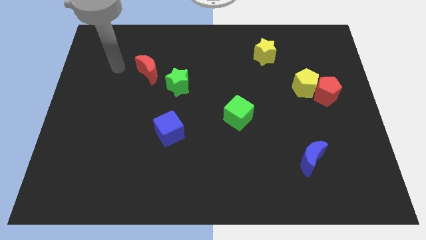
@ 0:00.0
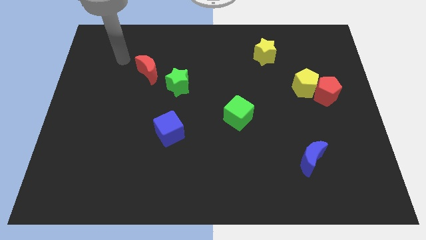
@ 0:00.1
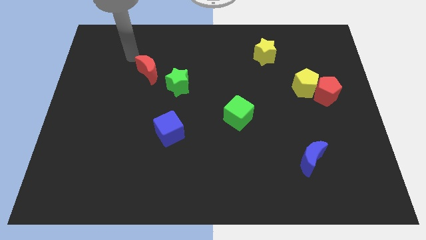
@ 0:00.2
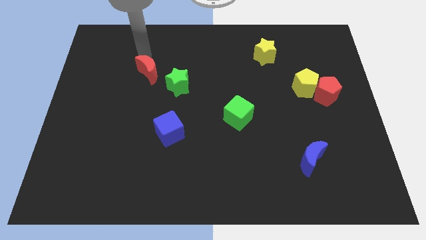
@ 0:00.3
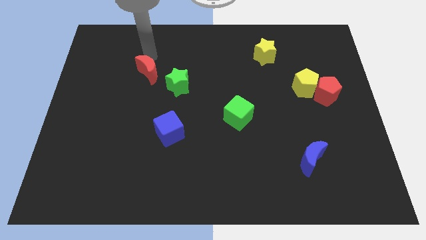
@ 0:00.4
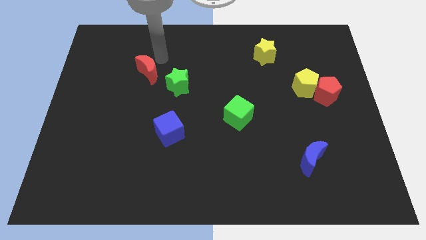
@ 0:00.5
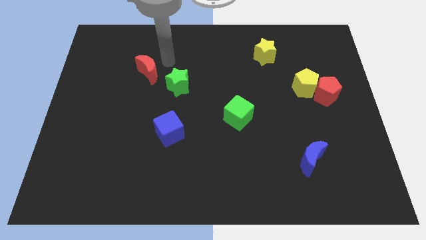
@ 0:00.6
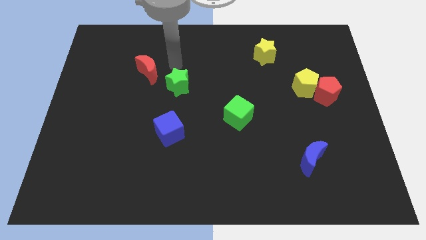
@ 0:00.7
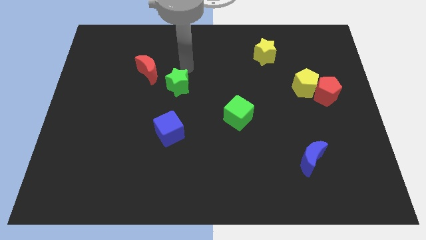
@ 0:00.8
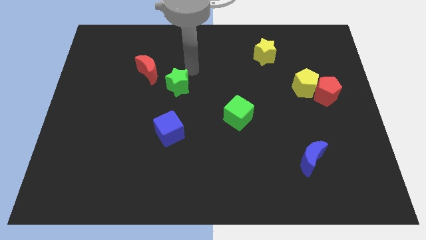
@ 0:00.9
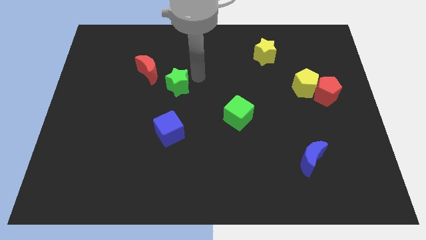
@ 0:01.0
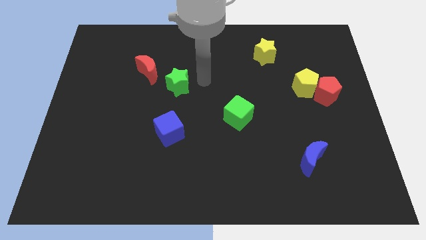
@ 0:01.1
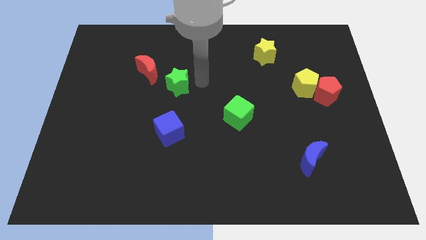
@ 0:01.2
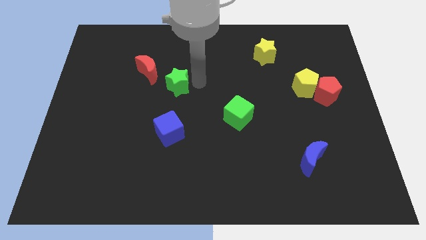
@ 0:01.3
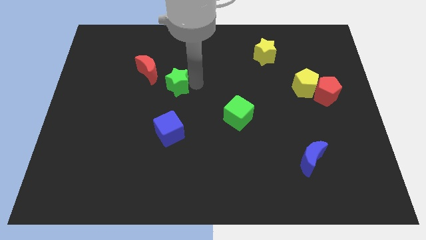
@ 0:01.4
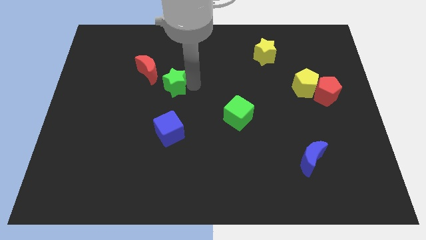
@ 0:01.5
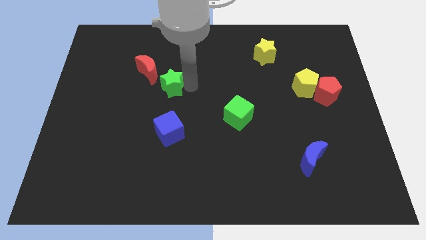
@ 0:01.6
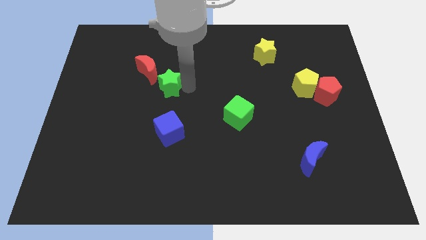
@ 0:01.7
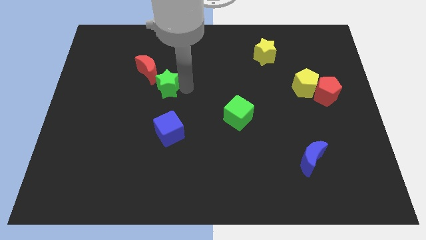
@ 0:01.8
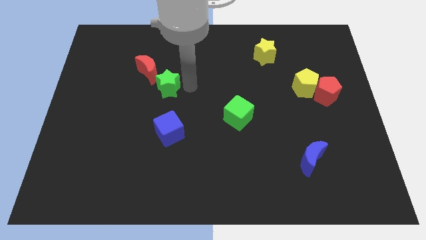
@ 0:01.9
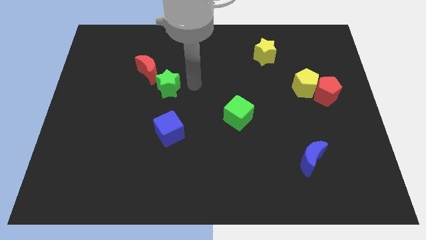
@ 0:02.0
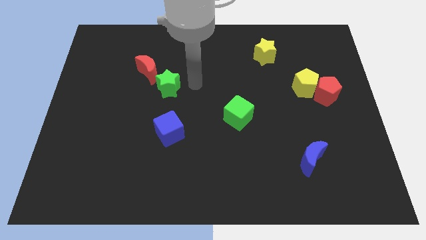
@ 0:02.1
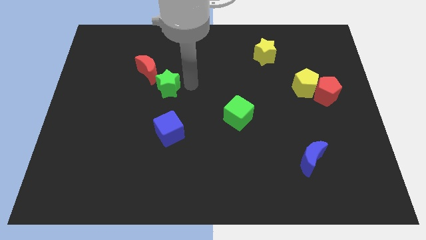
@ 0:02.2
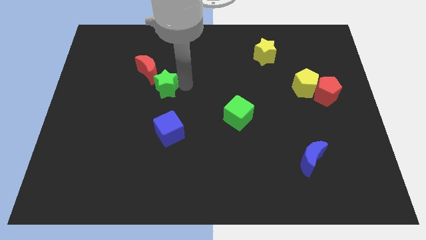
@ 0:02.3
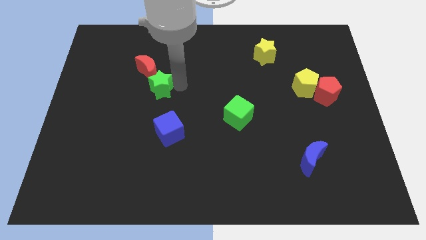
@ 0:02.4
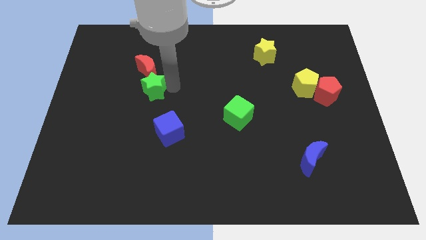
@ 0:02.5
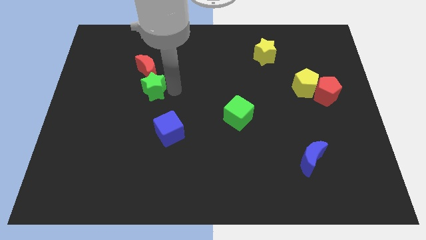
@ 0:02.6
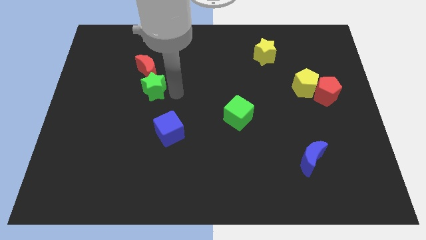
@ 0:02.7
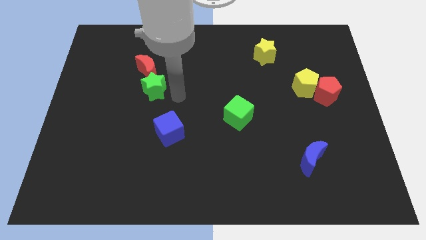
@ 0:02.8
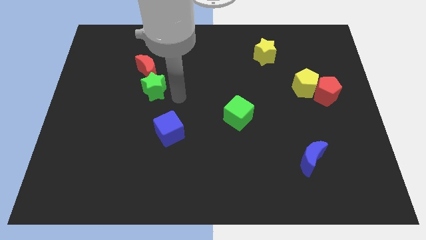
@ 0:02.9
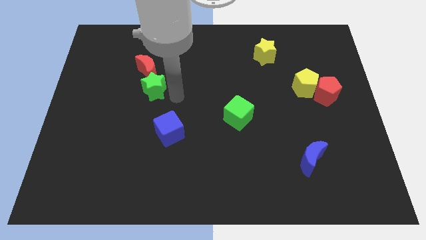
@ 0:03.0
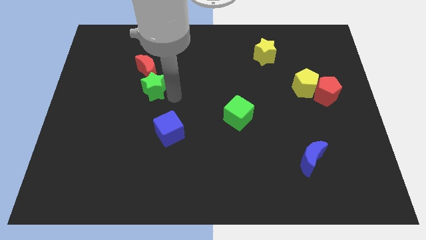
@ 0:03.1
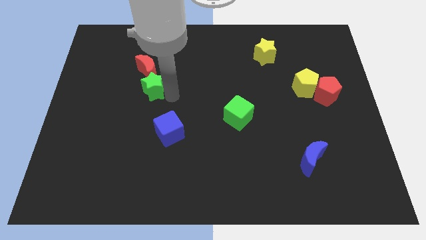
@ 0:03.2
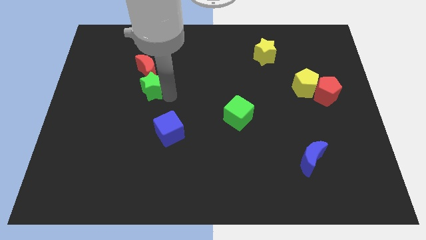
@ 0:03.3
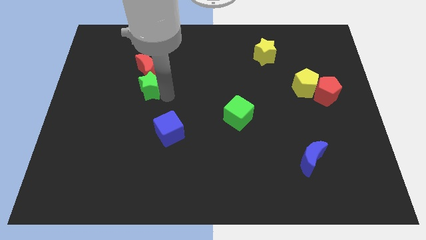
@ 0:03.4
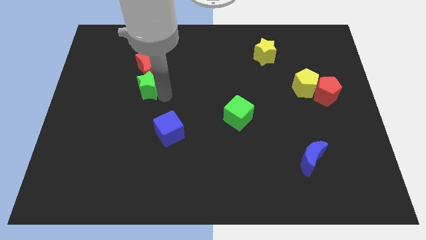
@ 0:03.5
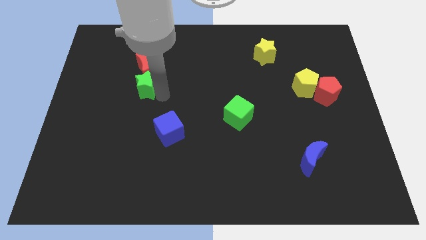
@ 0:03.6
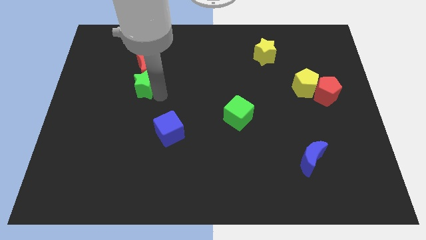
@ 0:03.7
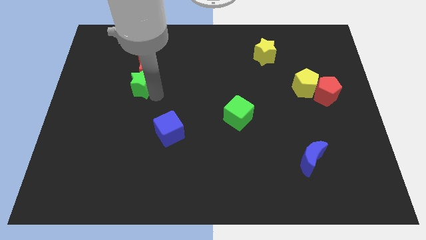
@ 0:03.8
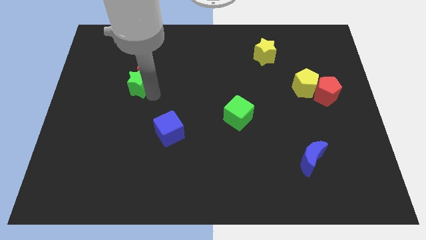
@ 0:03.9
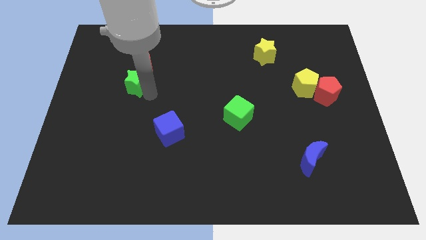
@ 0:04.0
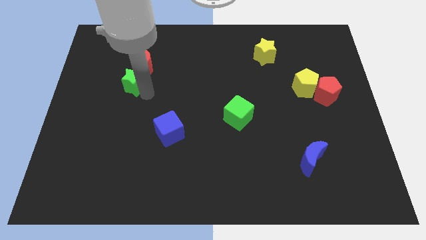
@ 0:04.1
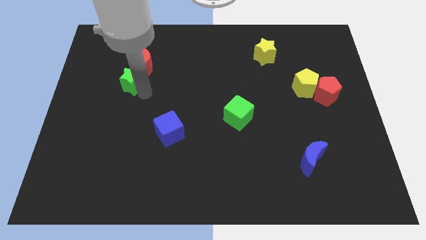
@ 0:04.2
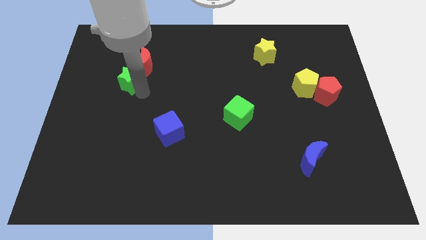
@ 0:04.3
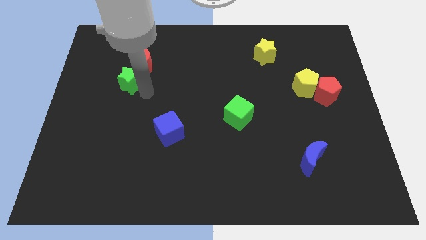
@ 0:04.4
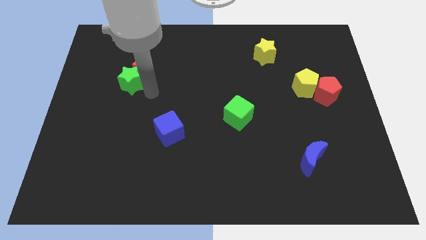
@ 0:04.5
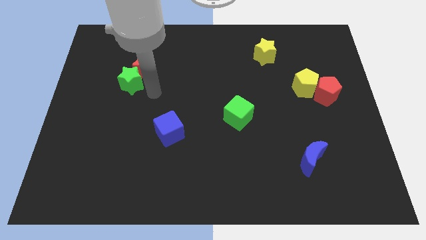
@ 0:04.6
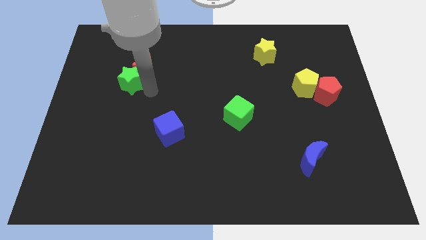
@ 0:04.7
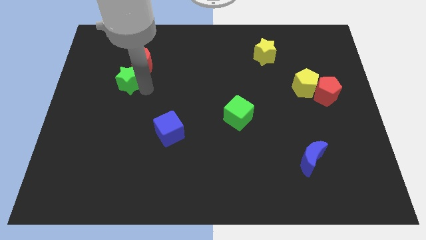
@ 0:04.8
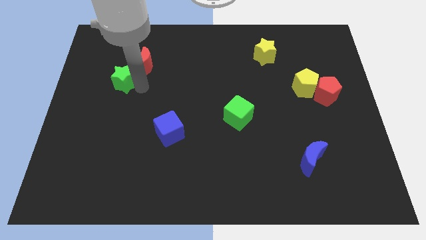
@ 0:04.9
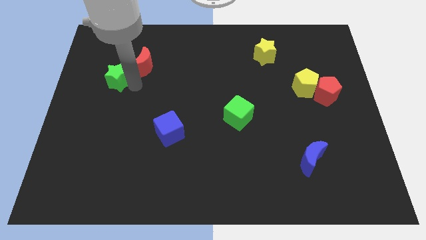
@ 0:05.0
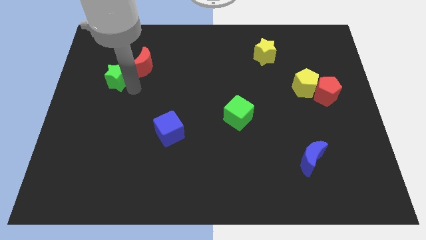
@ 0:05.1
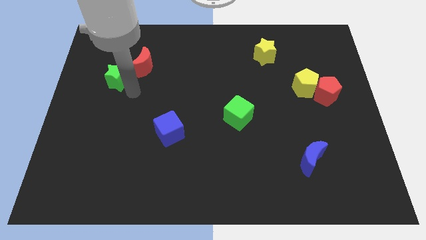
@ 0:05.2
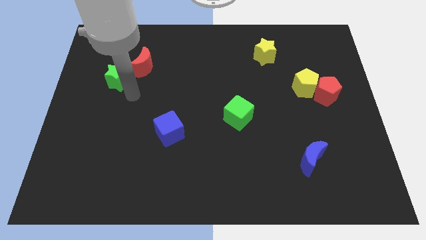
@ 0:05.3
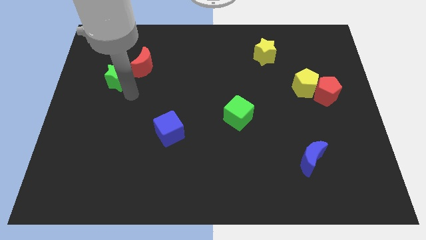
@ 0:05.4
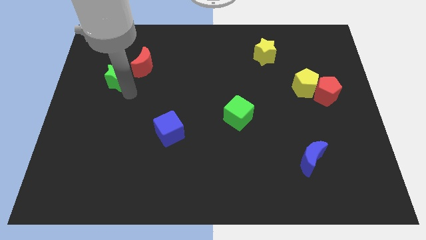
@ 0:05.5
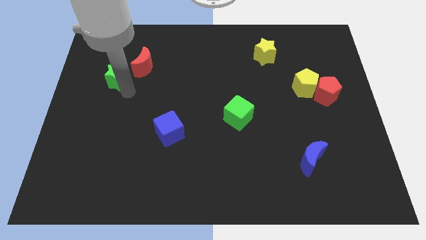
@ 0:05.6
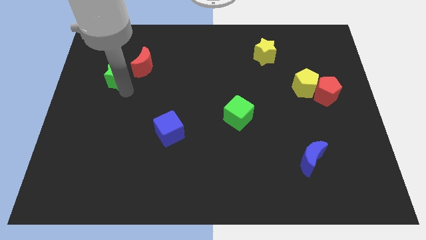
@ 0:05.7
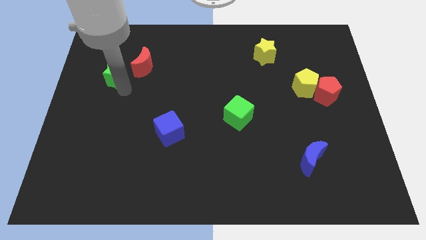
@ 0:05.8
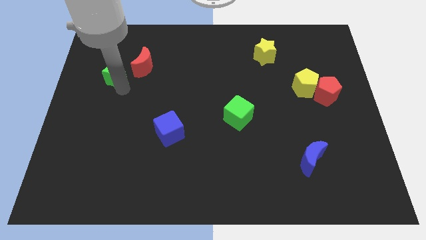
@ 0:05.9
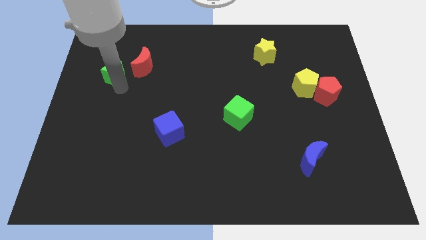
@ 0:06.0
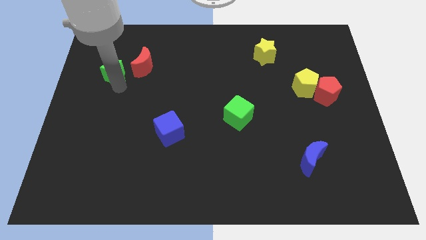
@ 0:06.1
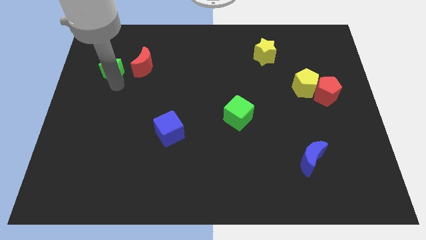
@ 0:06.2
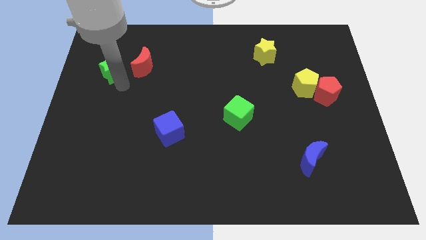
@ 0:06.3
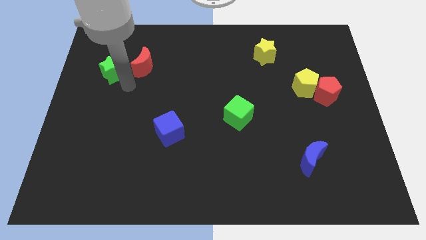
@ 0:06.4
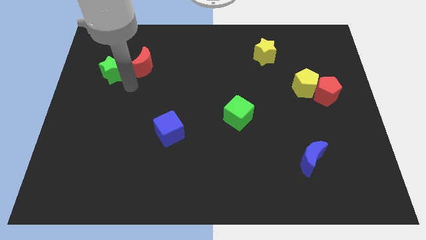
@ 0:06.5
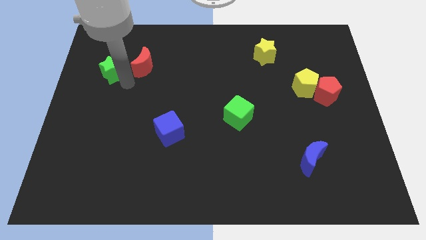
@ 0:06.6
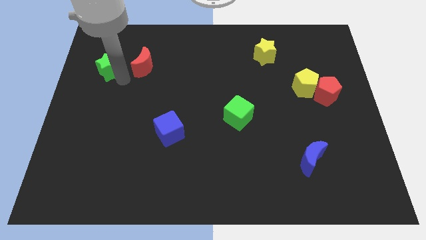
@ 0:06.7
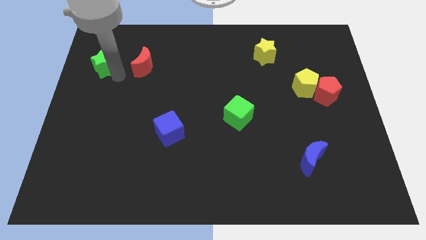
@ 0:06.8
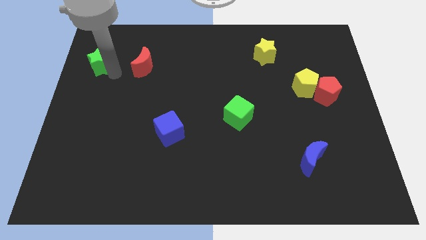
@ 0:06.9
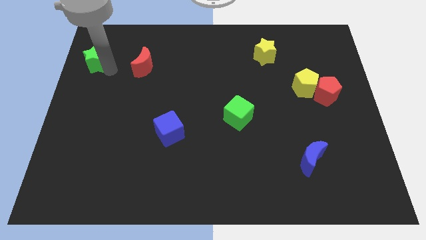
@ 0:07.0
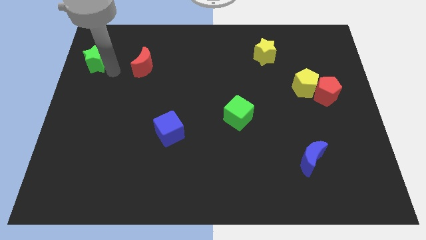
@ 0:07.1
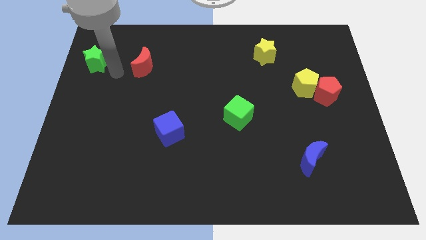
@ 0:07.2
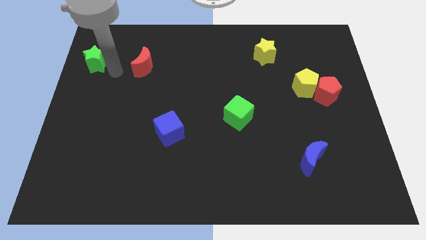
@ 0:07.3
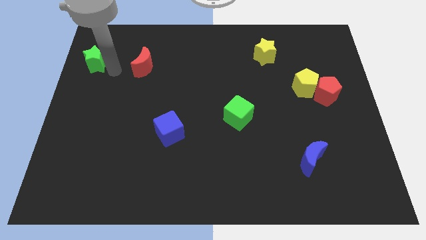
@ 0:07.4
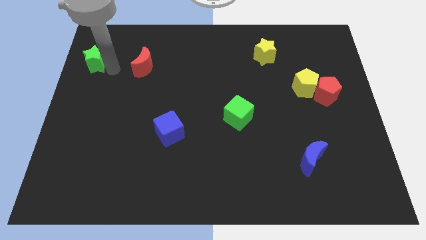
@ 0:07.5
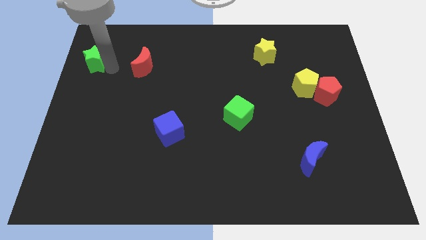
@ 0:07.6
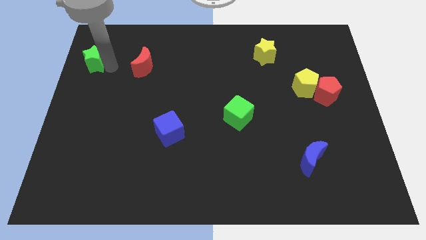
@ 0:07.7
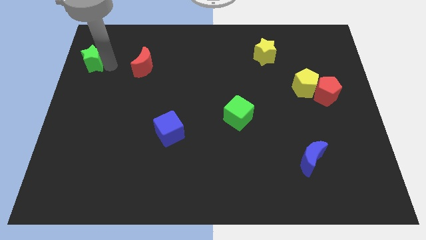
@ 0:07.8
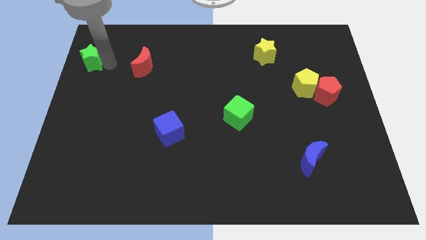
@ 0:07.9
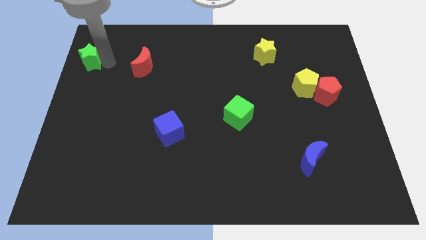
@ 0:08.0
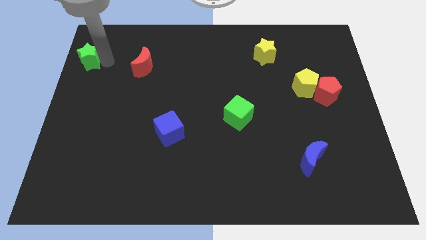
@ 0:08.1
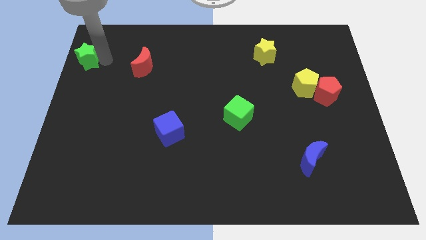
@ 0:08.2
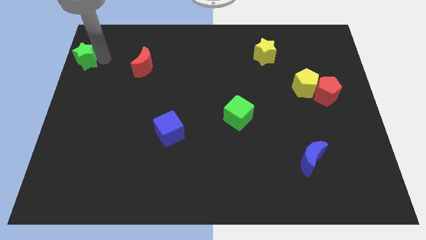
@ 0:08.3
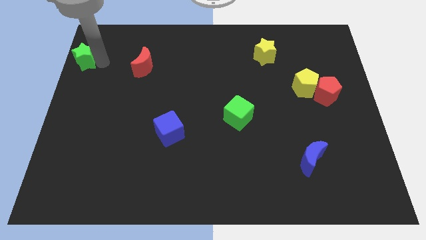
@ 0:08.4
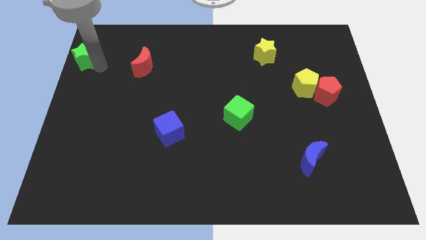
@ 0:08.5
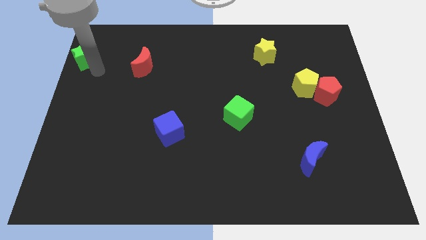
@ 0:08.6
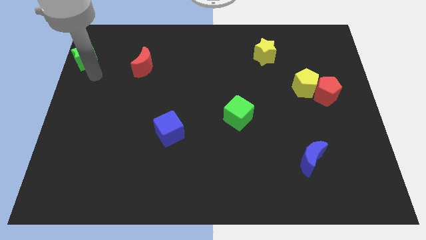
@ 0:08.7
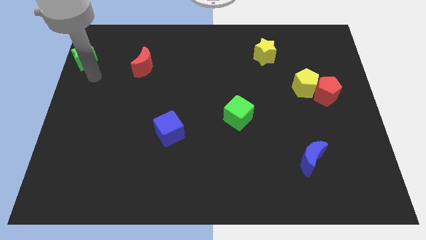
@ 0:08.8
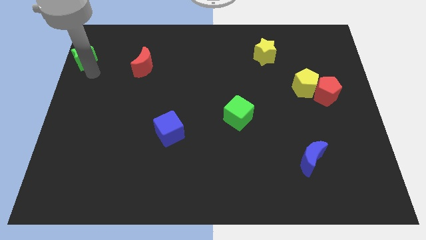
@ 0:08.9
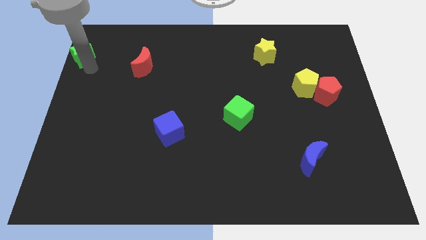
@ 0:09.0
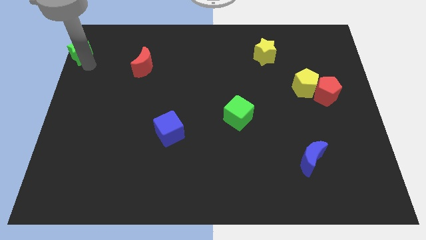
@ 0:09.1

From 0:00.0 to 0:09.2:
move the green star to the top left of the board
